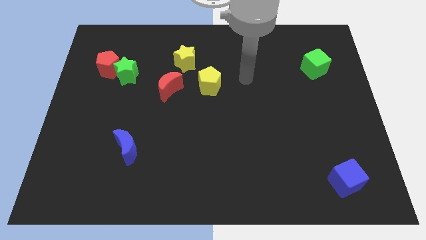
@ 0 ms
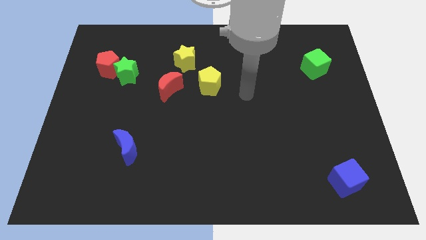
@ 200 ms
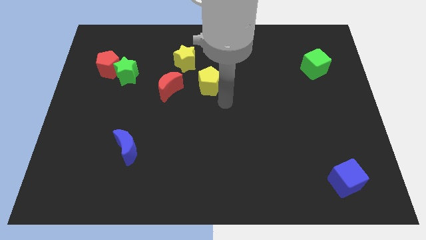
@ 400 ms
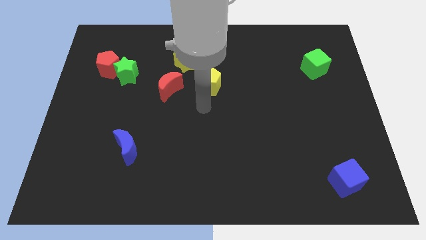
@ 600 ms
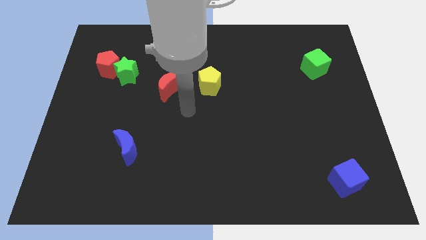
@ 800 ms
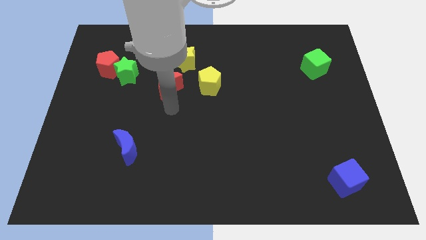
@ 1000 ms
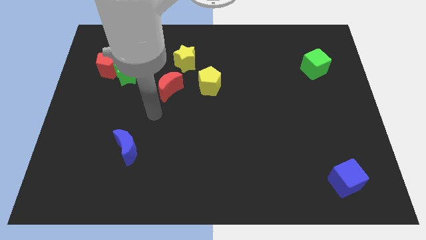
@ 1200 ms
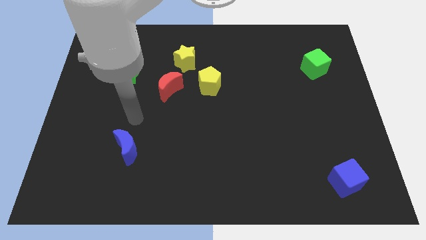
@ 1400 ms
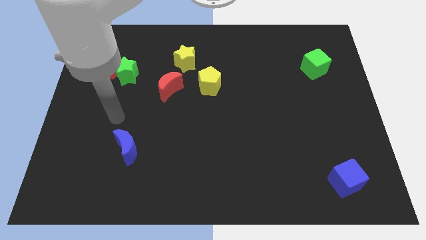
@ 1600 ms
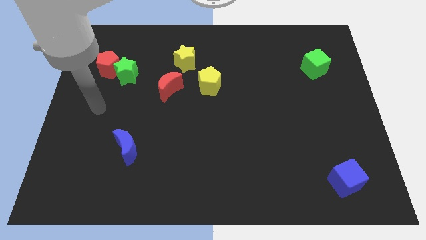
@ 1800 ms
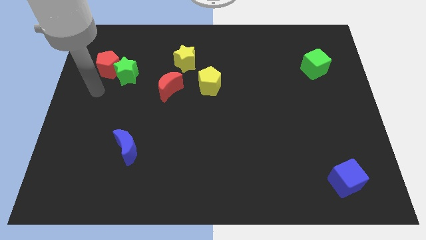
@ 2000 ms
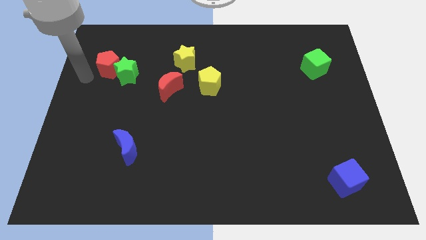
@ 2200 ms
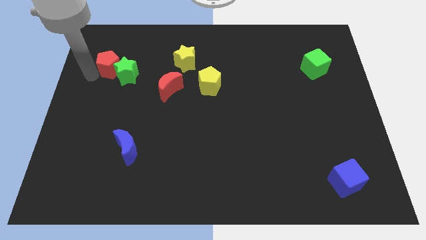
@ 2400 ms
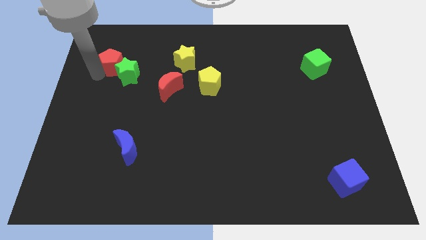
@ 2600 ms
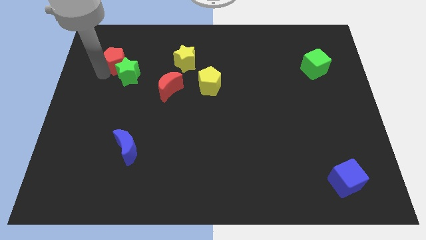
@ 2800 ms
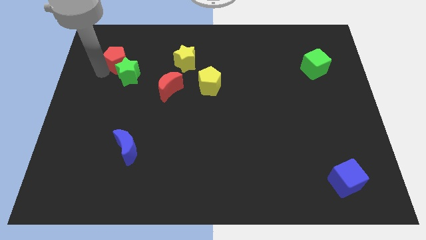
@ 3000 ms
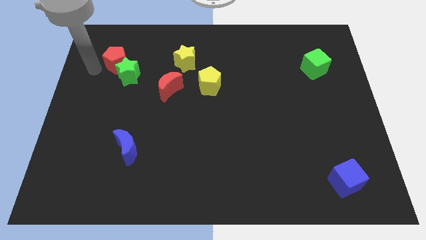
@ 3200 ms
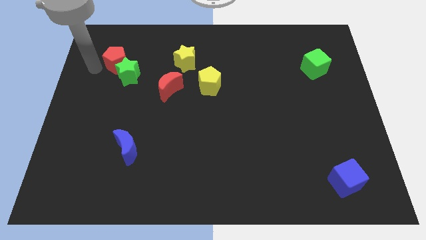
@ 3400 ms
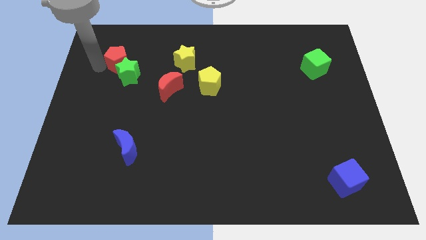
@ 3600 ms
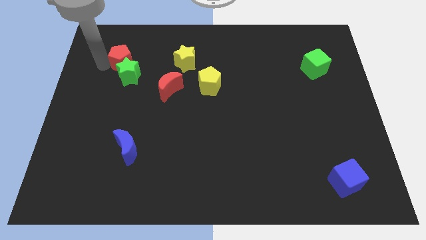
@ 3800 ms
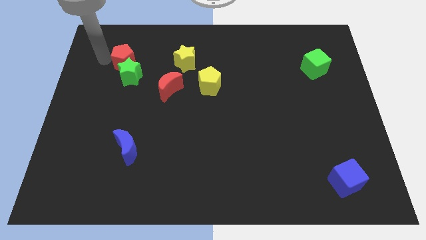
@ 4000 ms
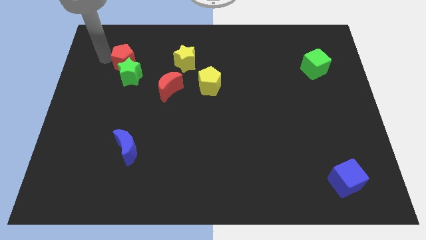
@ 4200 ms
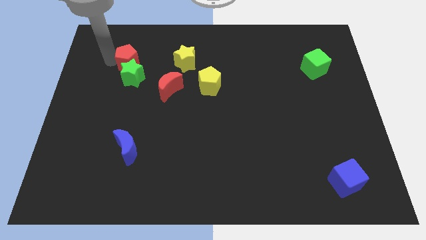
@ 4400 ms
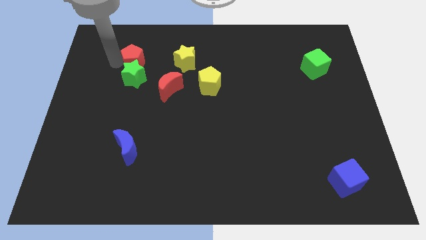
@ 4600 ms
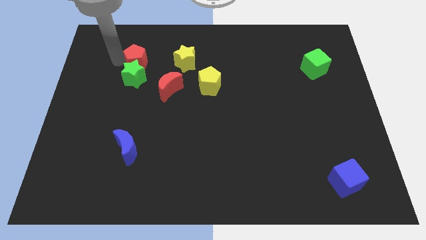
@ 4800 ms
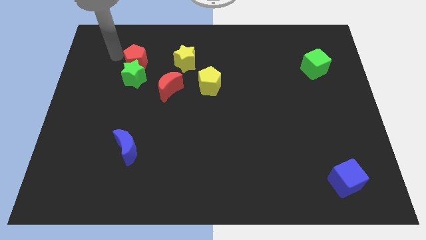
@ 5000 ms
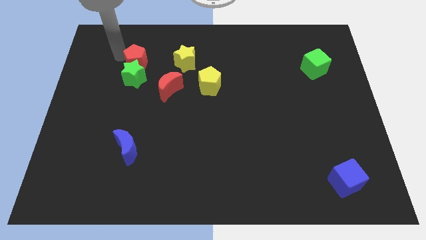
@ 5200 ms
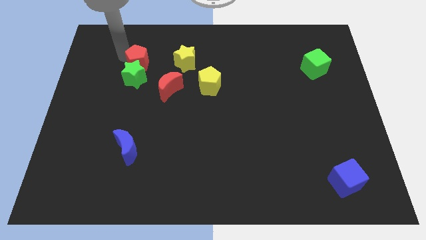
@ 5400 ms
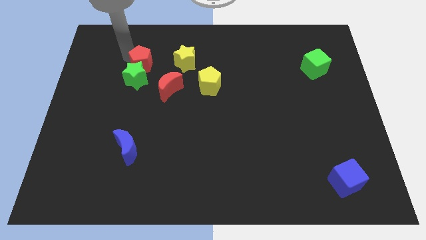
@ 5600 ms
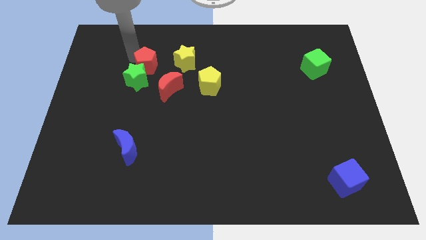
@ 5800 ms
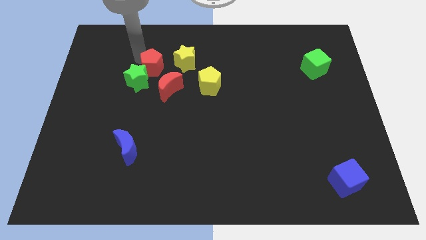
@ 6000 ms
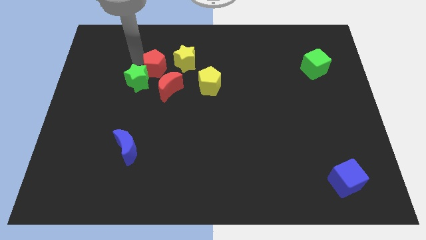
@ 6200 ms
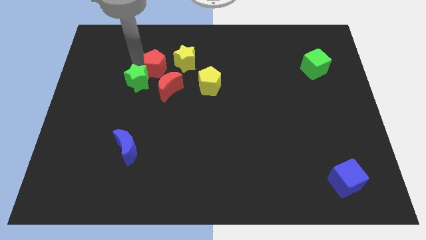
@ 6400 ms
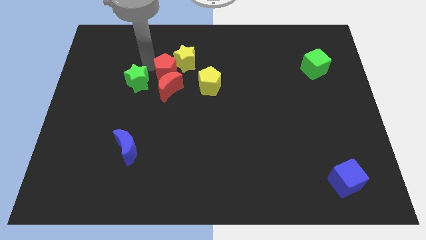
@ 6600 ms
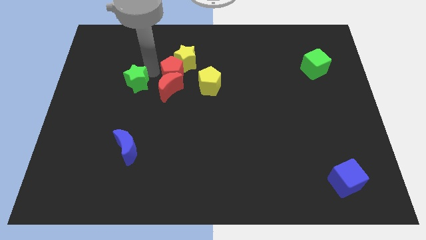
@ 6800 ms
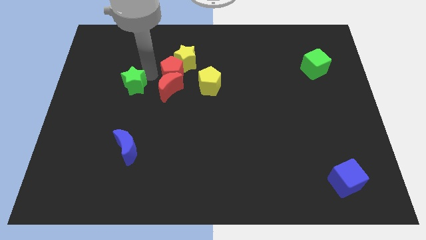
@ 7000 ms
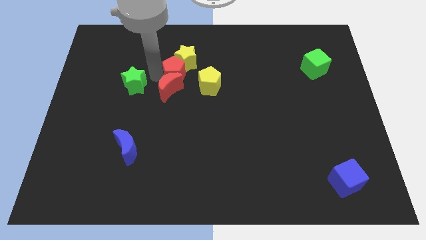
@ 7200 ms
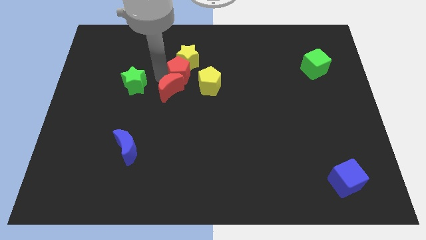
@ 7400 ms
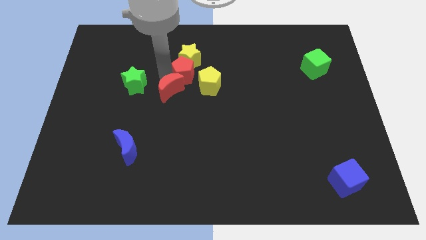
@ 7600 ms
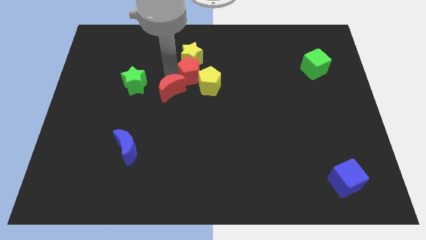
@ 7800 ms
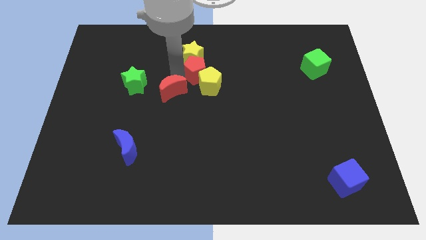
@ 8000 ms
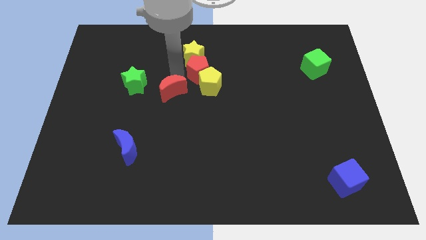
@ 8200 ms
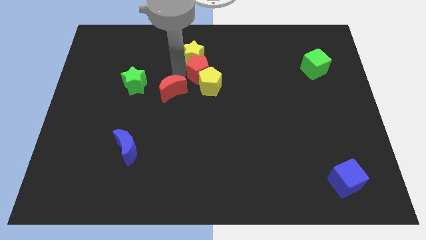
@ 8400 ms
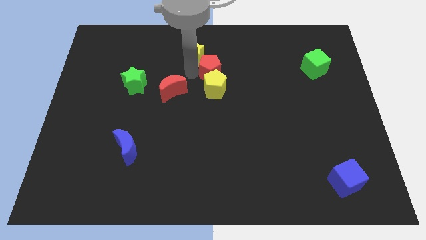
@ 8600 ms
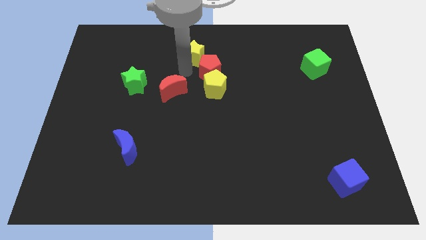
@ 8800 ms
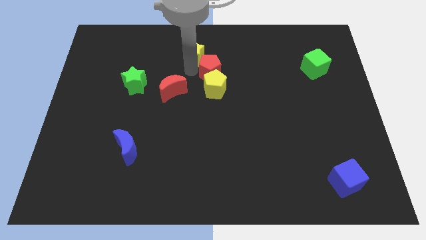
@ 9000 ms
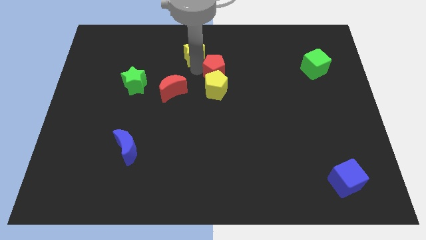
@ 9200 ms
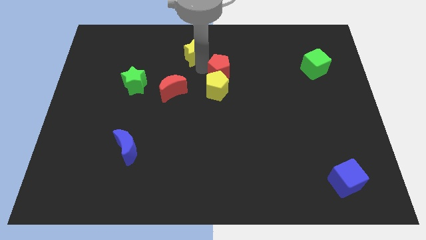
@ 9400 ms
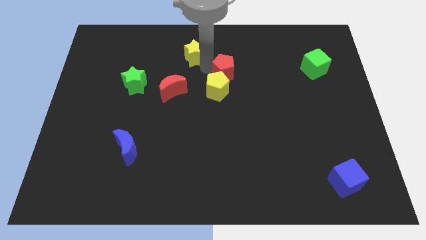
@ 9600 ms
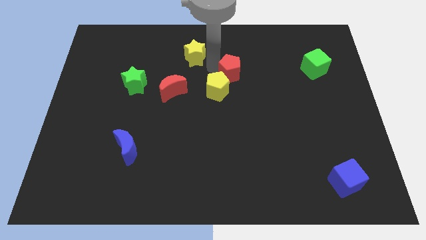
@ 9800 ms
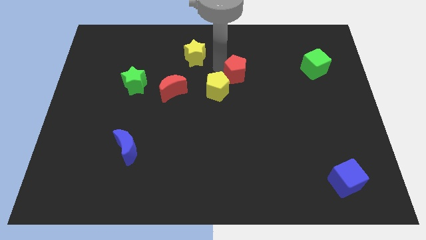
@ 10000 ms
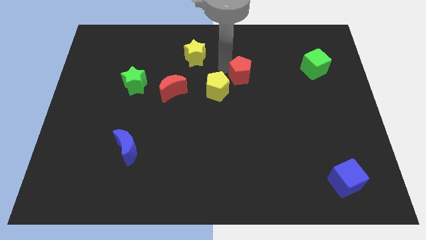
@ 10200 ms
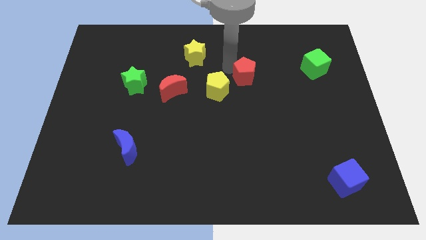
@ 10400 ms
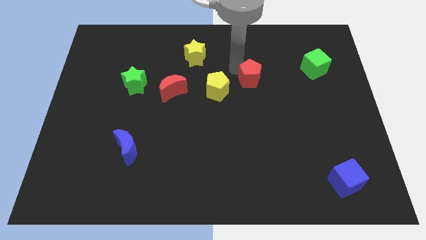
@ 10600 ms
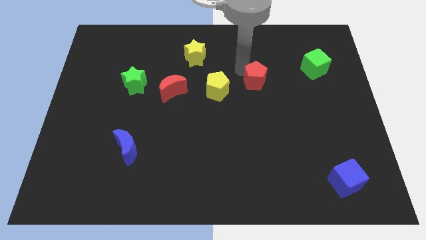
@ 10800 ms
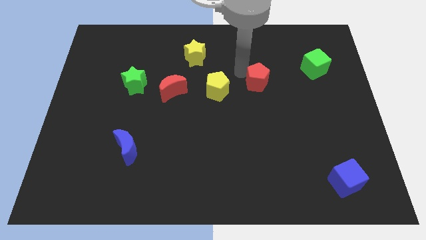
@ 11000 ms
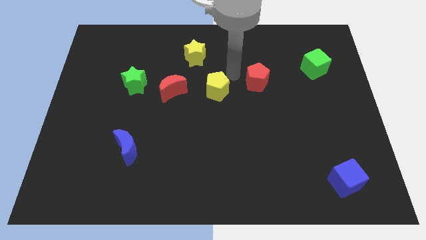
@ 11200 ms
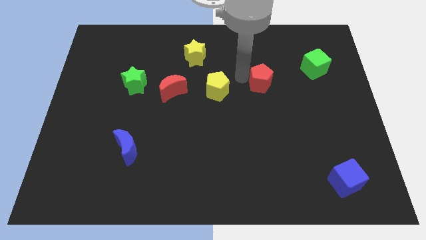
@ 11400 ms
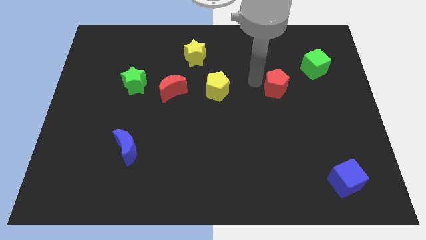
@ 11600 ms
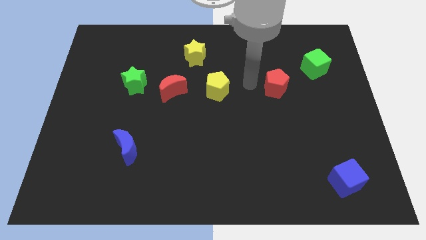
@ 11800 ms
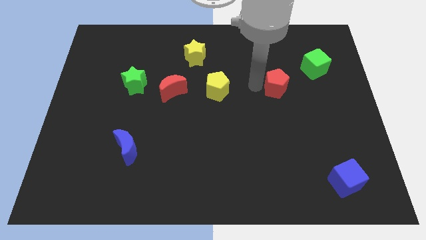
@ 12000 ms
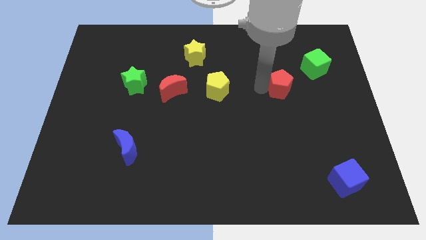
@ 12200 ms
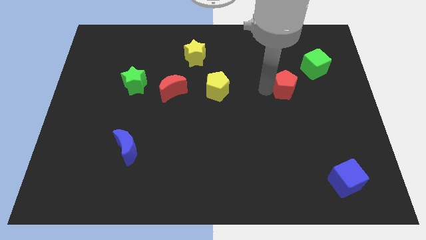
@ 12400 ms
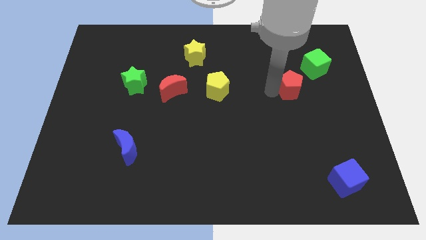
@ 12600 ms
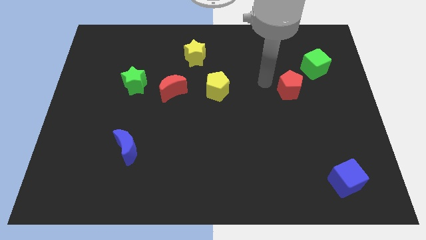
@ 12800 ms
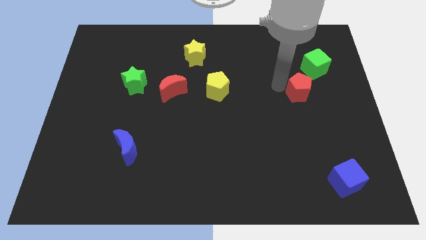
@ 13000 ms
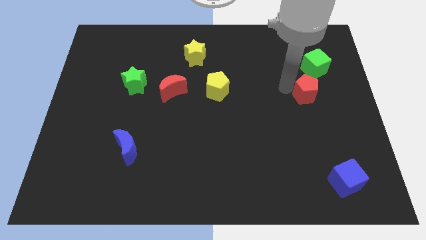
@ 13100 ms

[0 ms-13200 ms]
slide the red pentagon below the green cube
